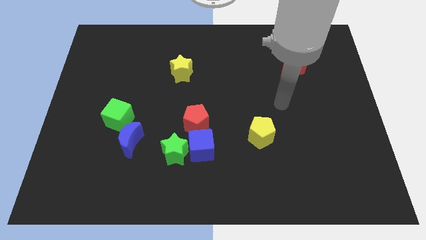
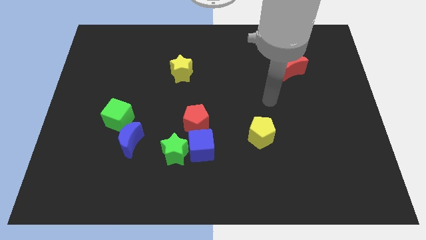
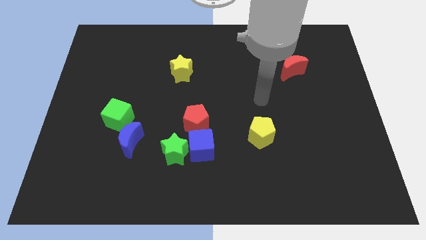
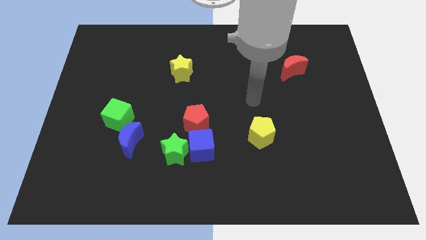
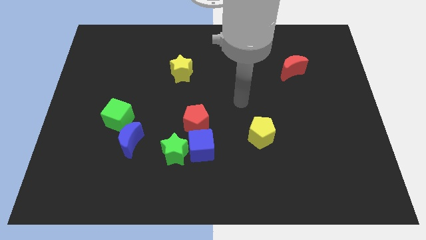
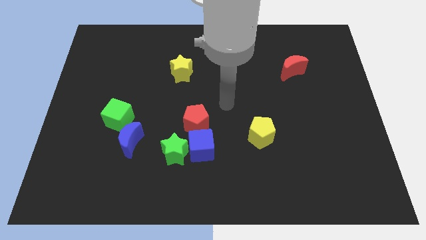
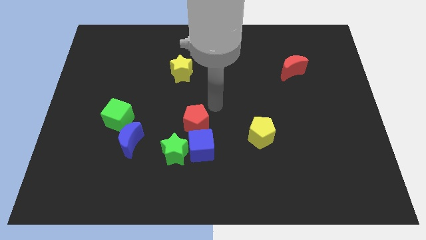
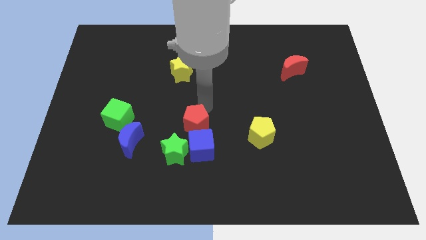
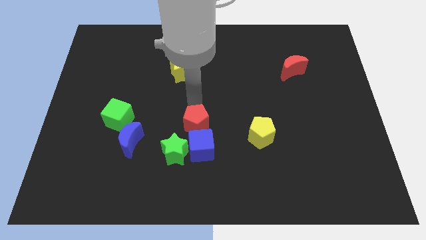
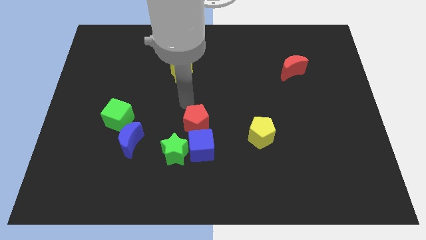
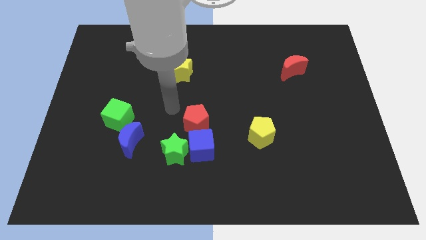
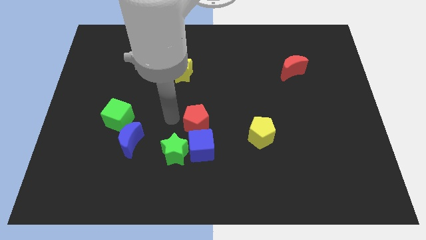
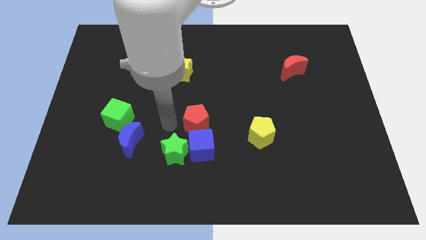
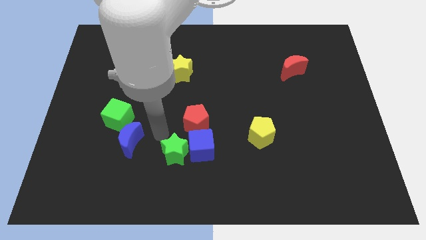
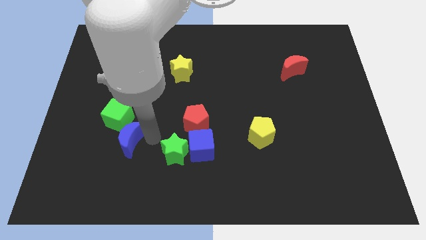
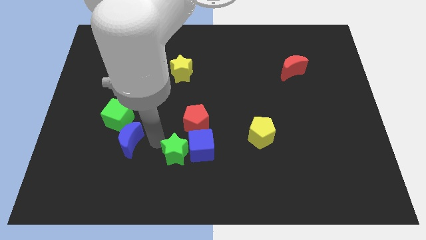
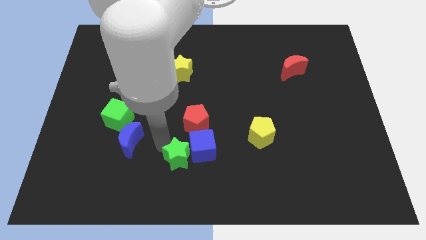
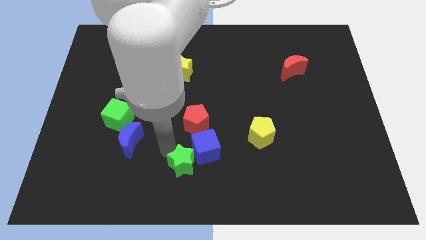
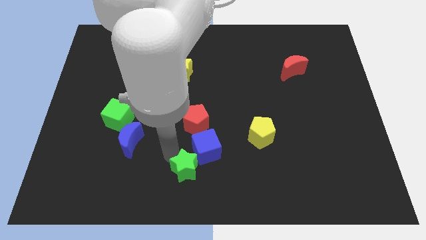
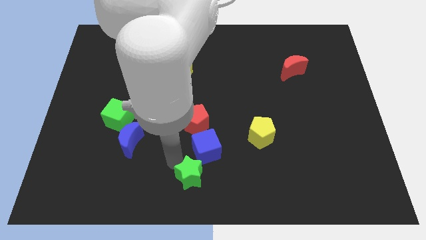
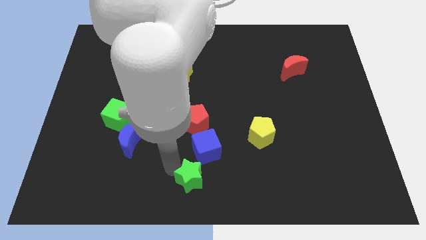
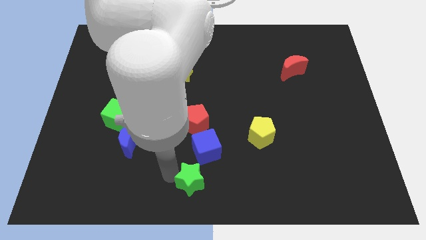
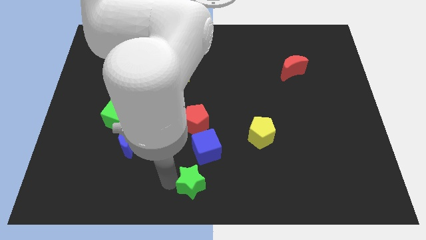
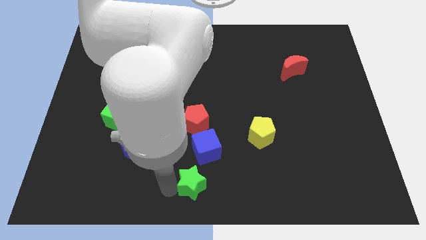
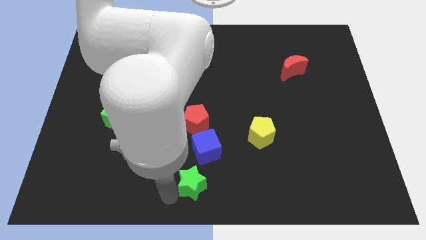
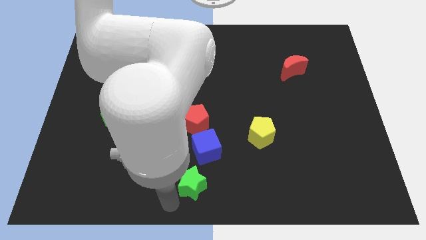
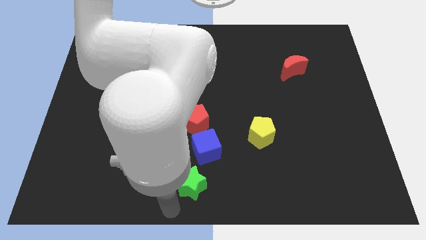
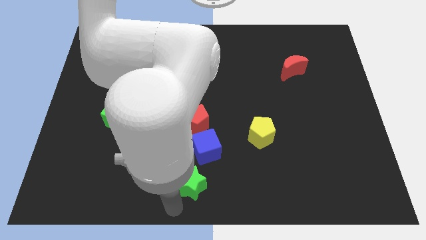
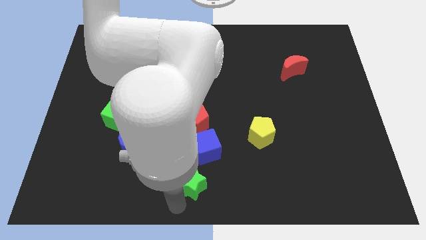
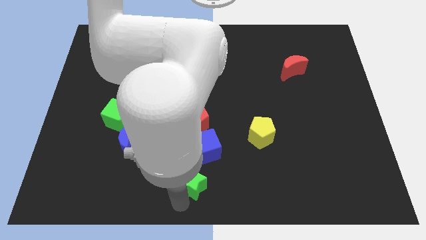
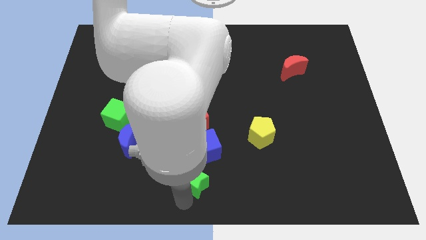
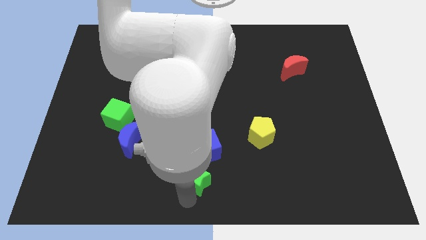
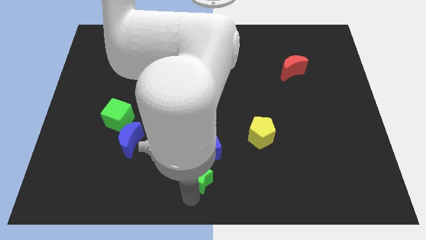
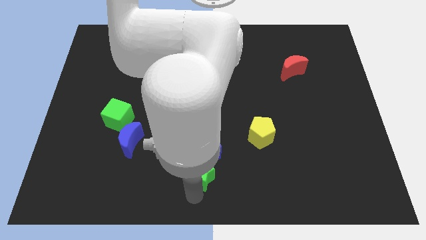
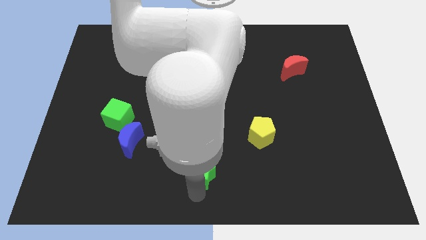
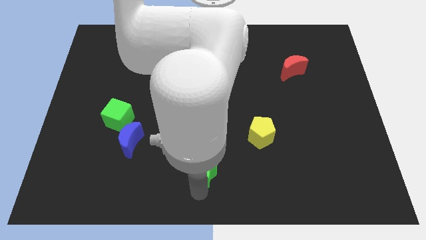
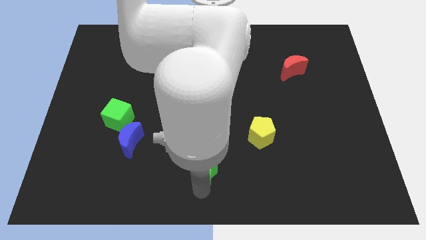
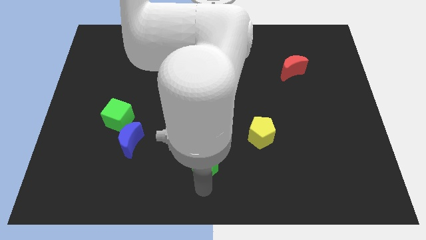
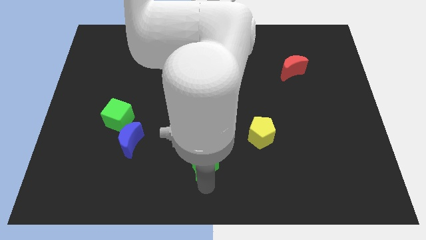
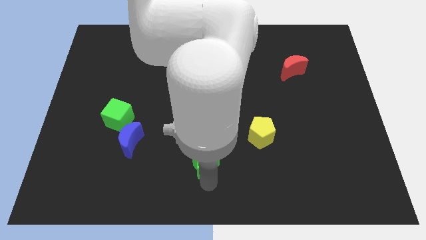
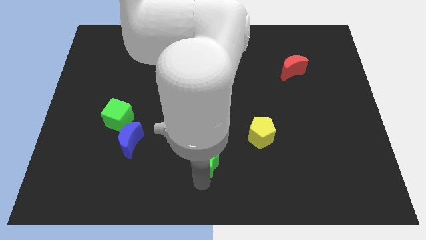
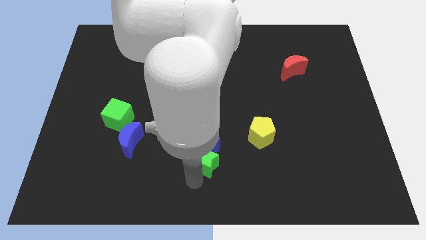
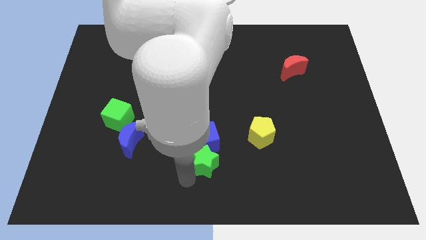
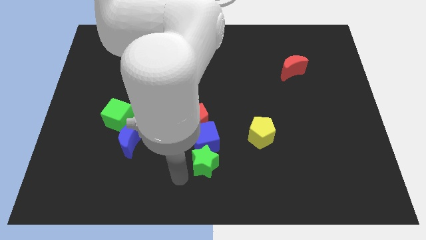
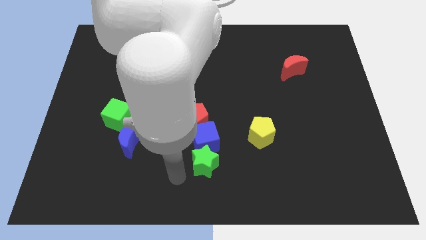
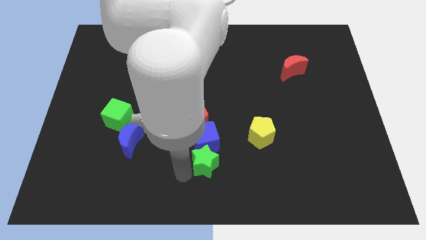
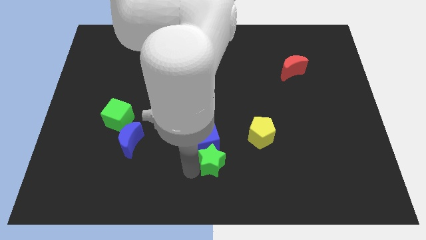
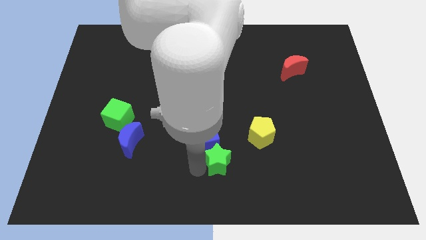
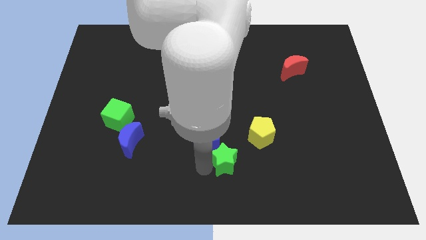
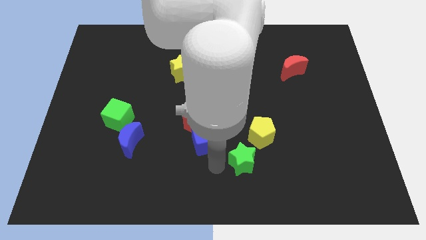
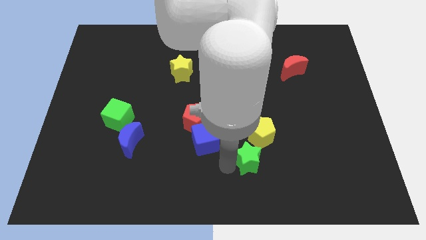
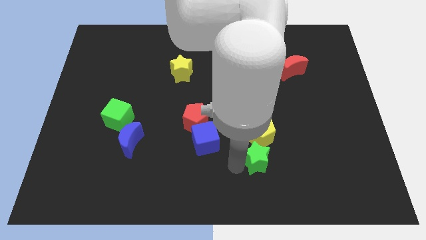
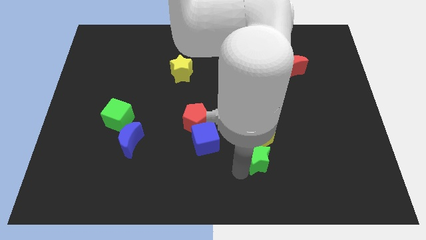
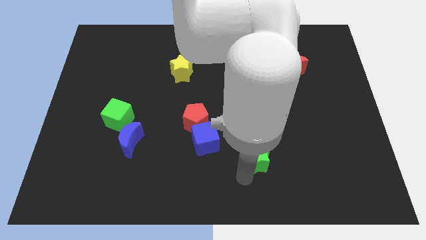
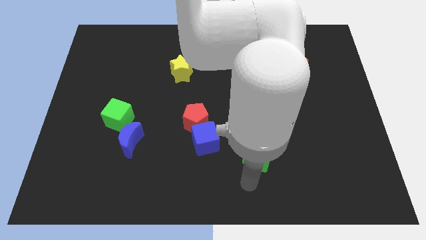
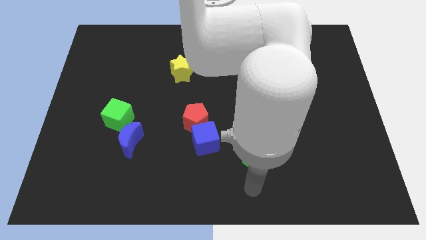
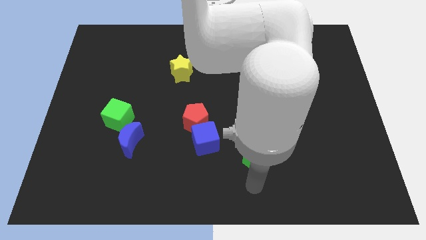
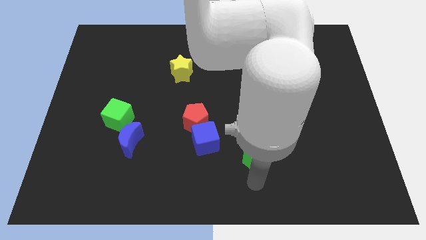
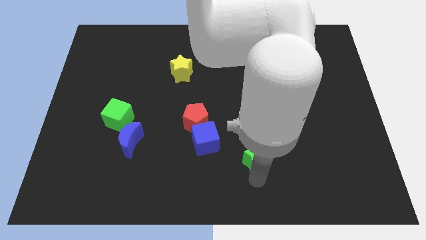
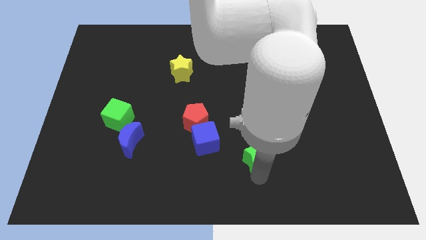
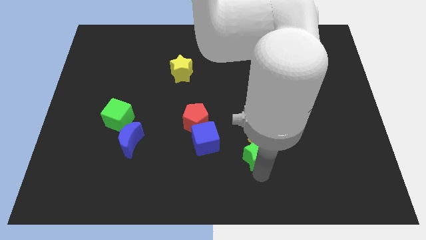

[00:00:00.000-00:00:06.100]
slide the green star to the yellow pentagon

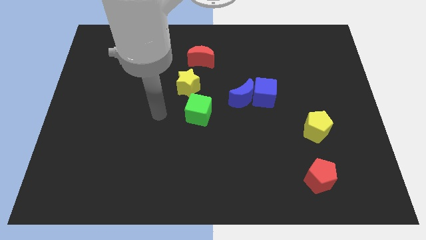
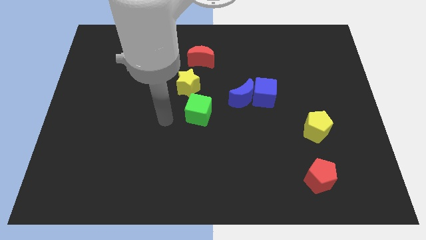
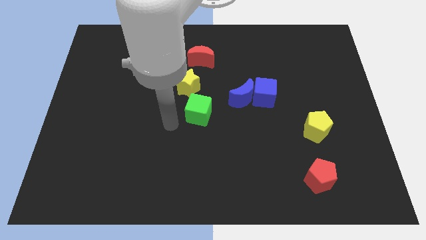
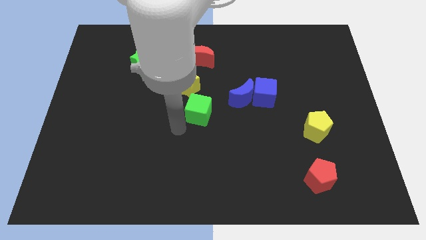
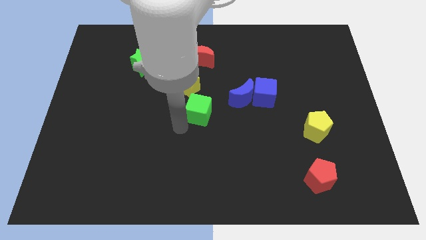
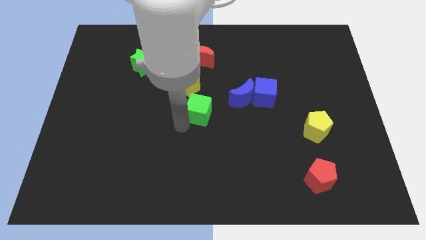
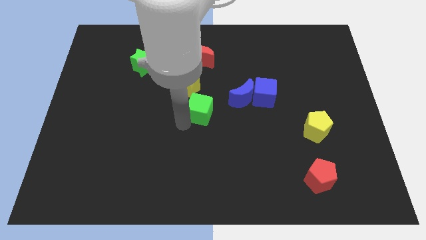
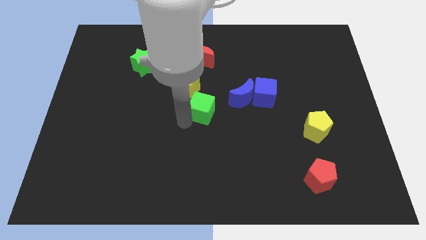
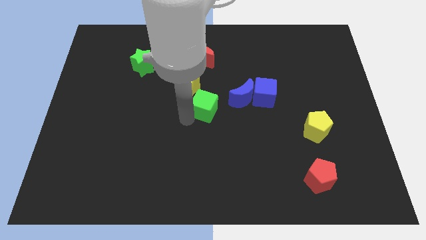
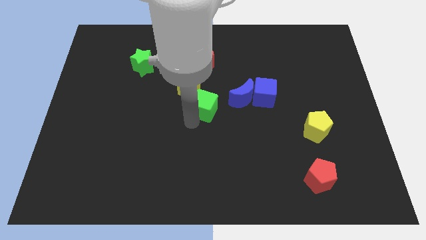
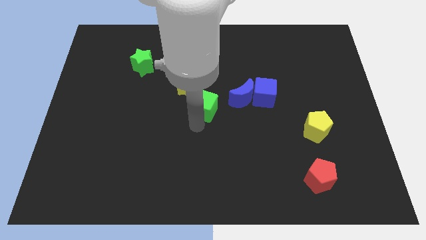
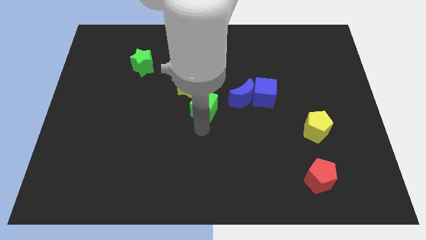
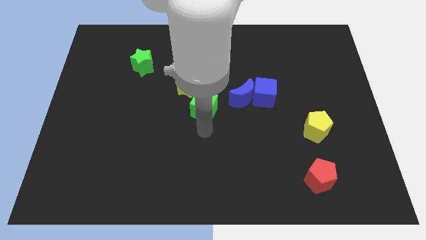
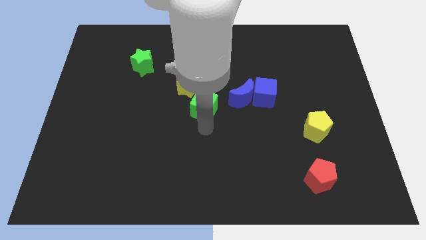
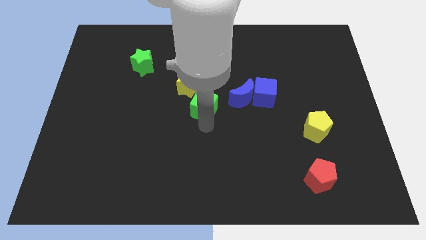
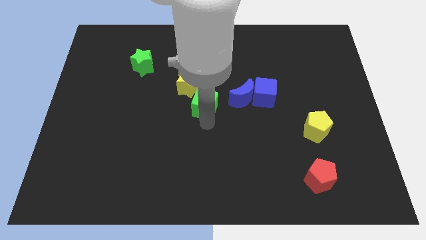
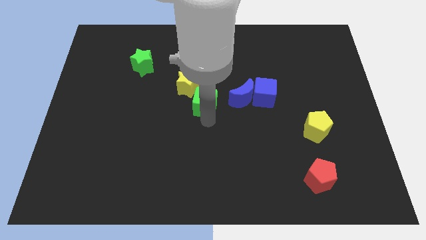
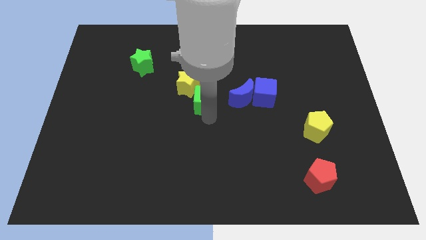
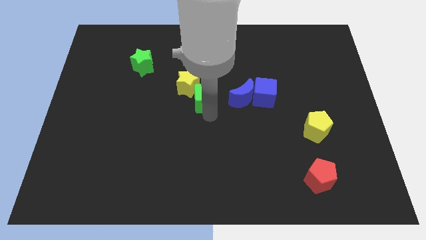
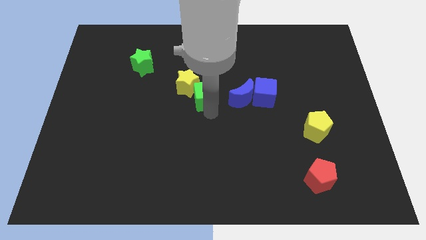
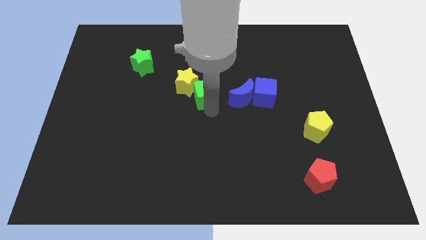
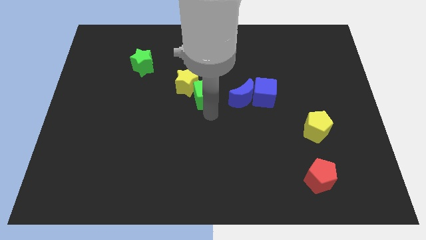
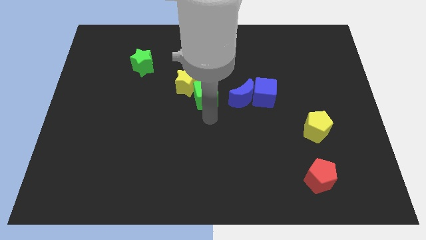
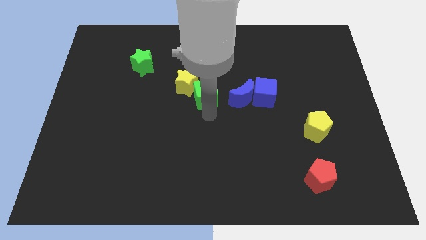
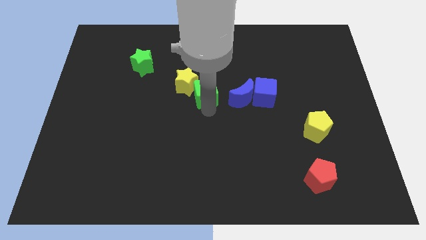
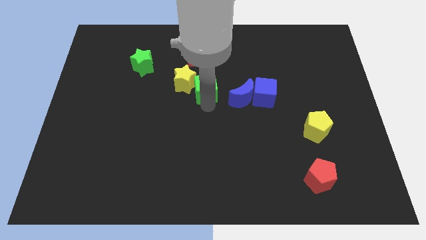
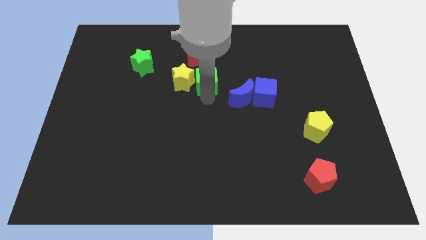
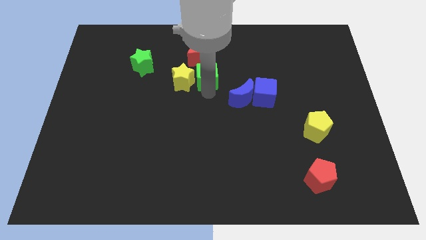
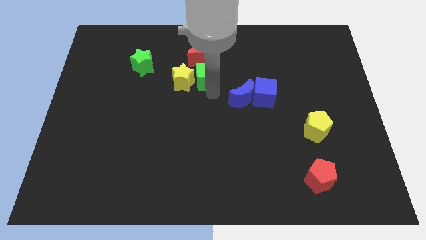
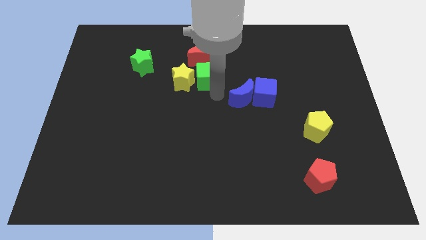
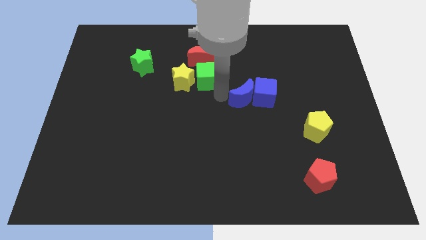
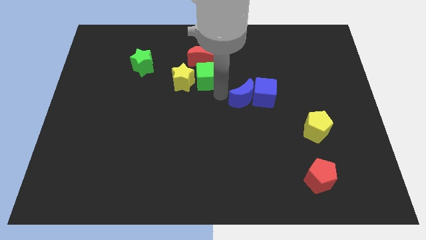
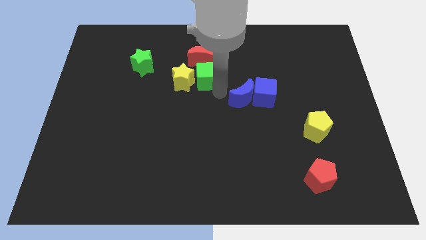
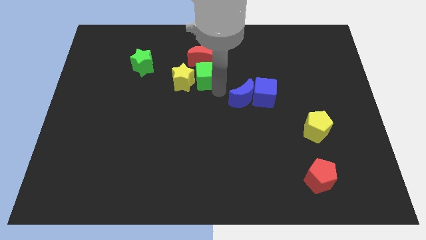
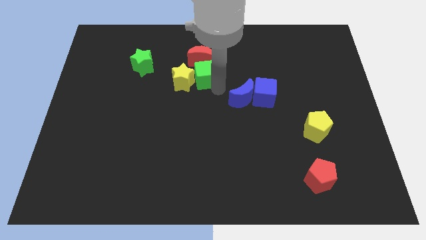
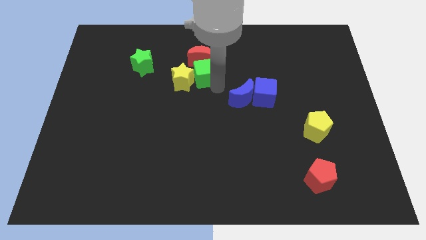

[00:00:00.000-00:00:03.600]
move the green cube close to the red moon
